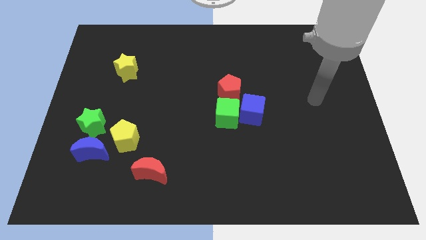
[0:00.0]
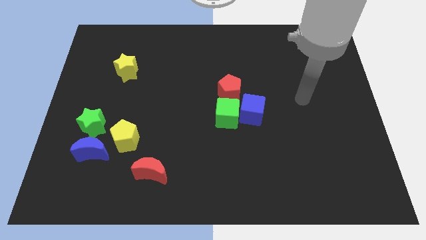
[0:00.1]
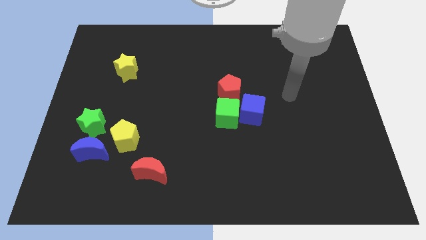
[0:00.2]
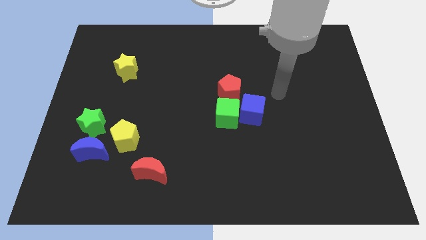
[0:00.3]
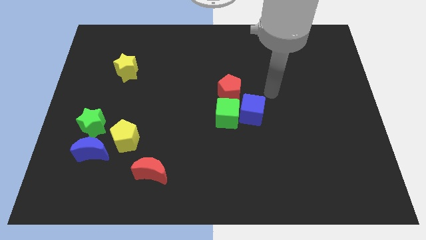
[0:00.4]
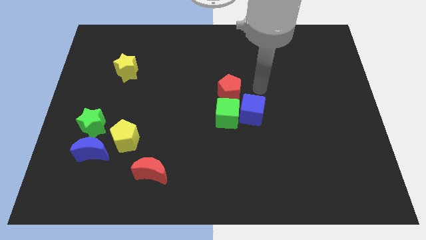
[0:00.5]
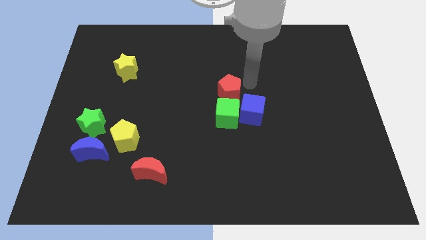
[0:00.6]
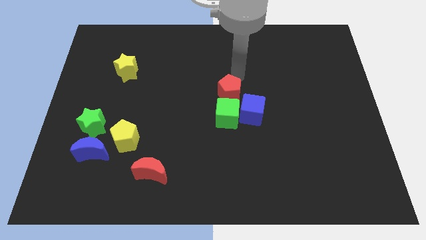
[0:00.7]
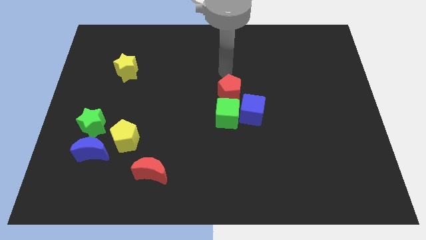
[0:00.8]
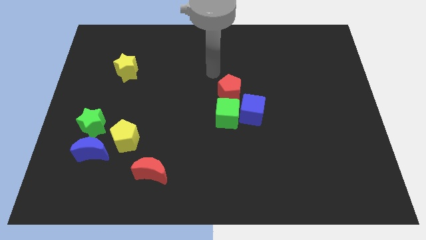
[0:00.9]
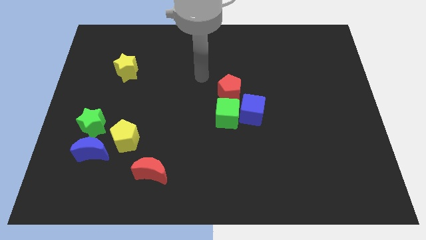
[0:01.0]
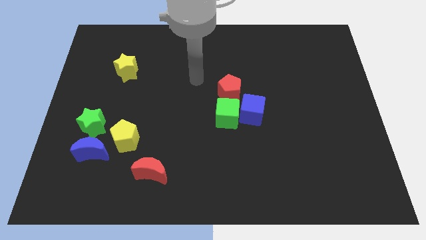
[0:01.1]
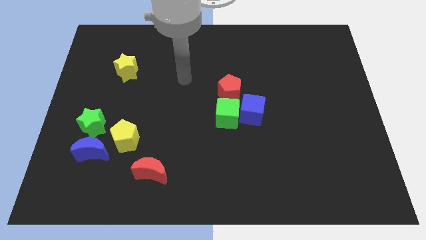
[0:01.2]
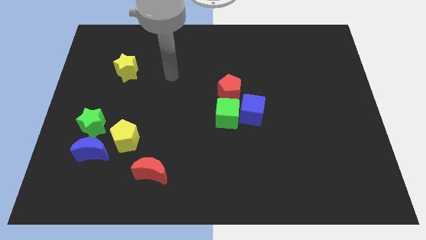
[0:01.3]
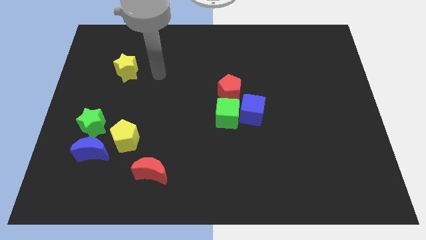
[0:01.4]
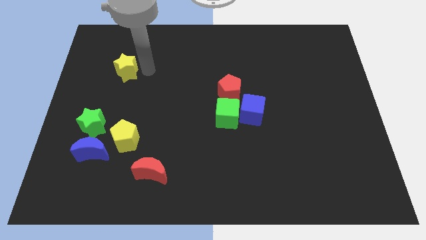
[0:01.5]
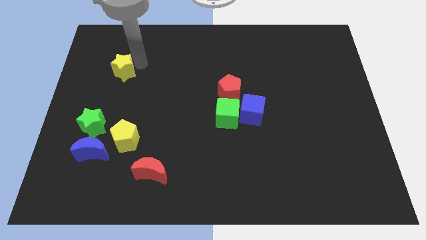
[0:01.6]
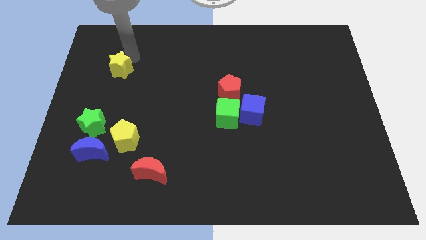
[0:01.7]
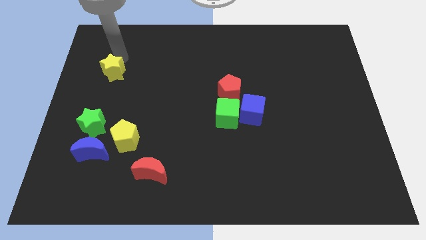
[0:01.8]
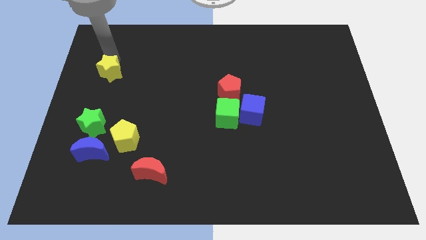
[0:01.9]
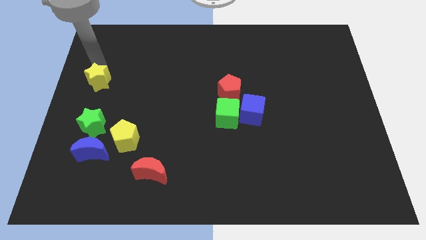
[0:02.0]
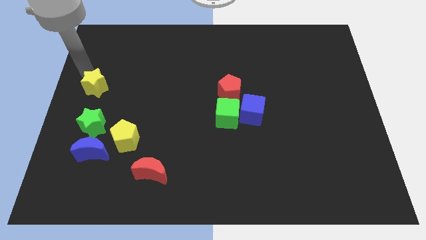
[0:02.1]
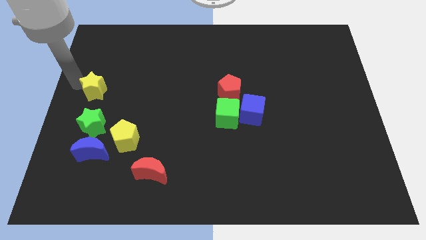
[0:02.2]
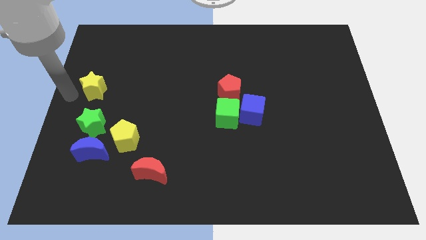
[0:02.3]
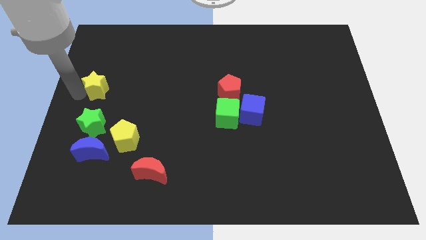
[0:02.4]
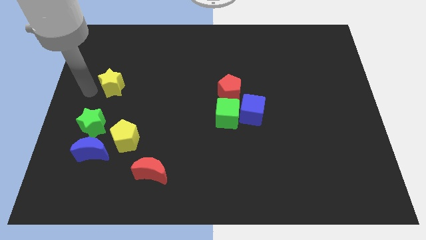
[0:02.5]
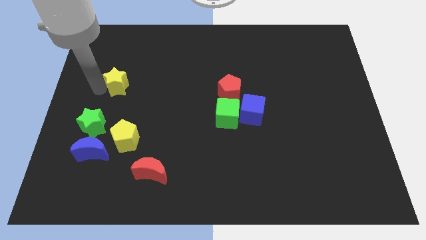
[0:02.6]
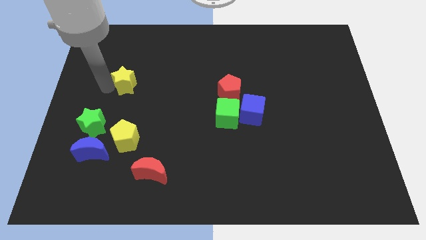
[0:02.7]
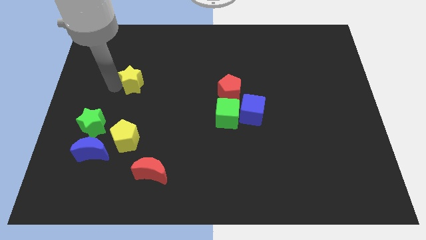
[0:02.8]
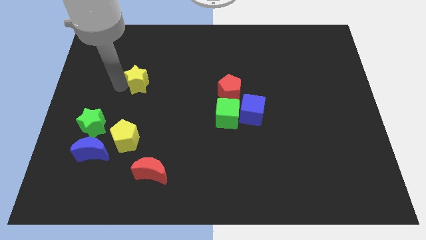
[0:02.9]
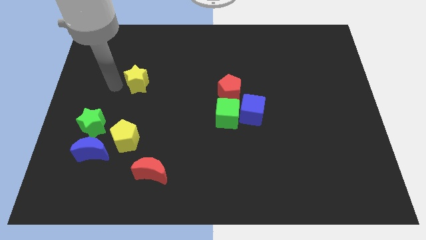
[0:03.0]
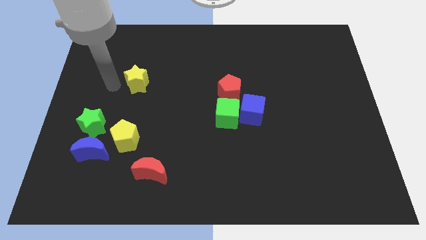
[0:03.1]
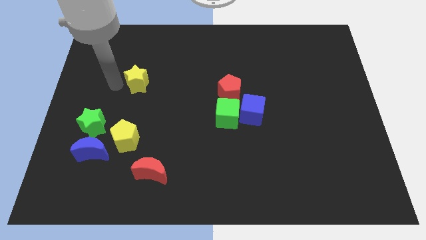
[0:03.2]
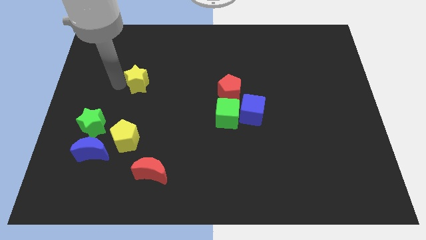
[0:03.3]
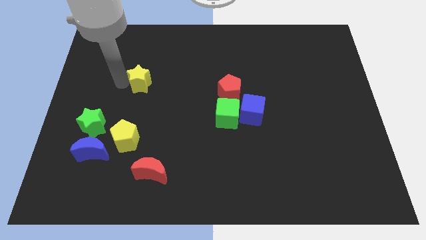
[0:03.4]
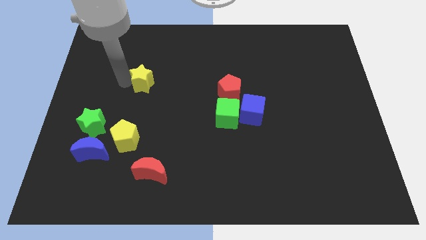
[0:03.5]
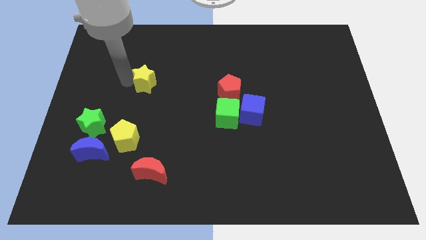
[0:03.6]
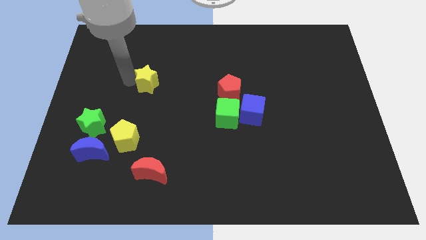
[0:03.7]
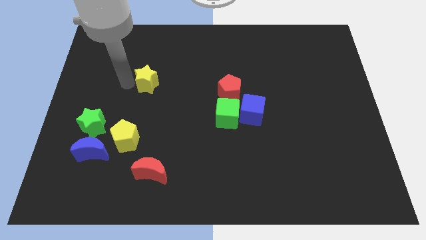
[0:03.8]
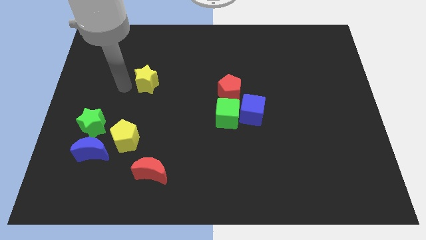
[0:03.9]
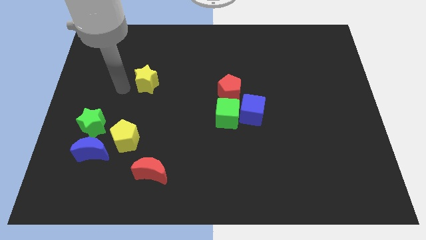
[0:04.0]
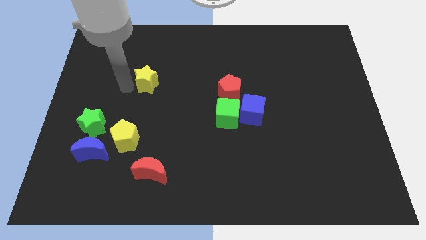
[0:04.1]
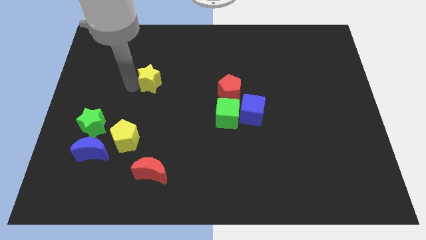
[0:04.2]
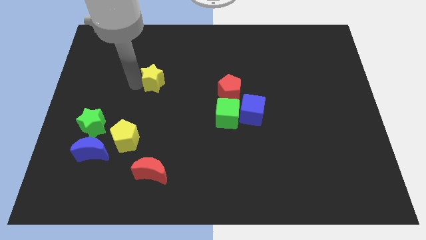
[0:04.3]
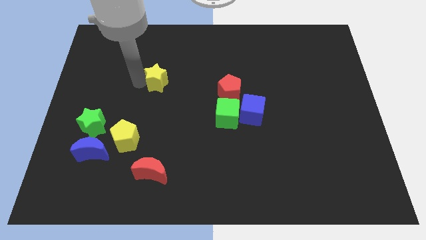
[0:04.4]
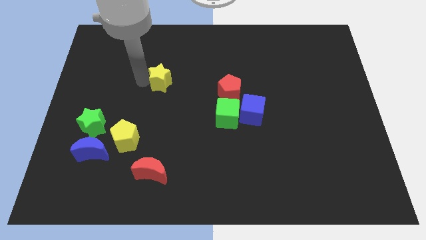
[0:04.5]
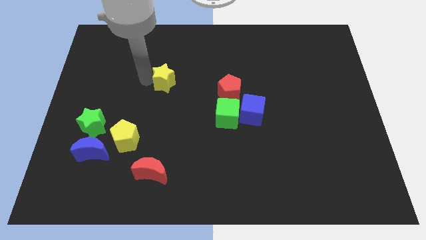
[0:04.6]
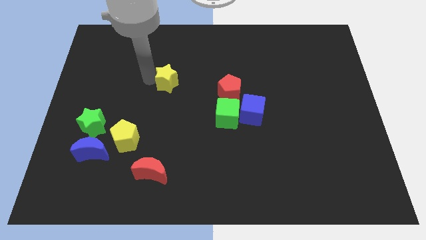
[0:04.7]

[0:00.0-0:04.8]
push the yellow star to the middle of the board

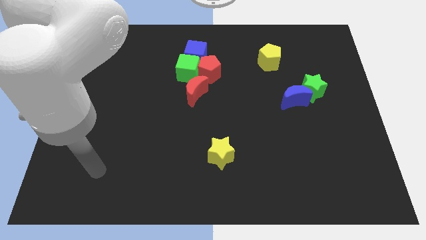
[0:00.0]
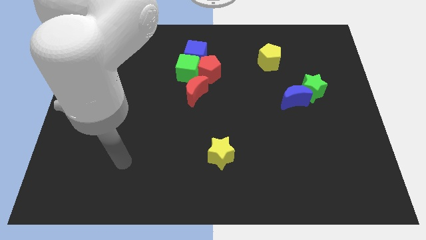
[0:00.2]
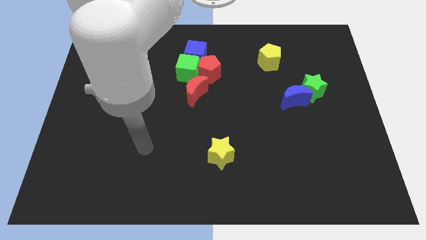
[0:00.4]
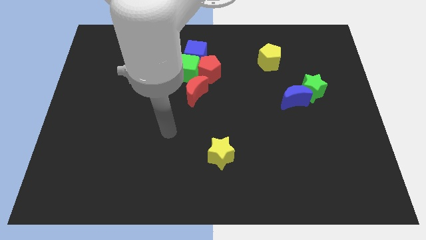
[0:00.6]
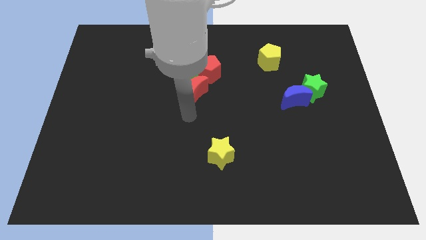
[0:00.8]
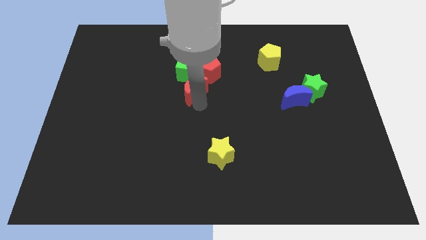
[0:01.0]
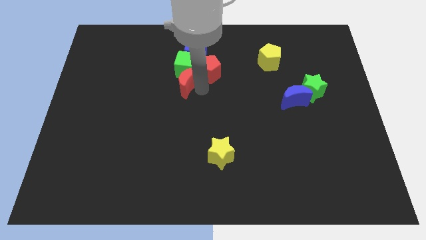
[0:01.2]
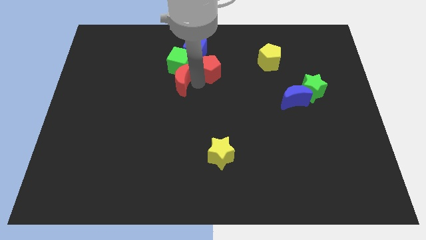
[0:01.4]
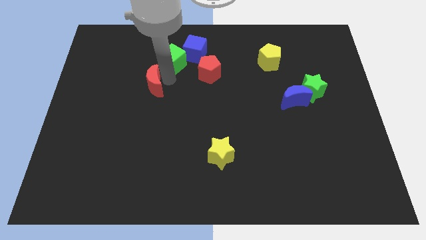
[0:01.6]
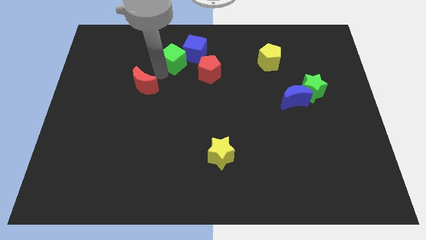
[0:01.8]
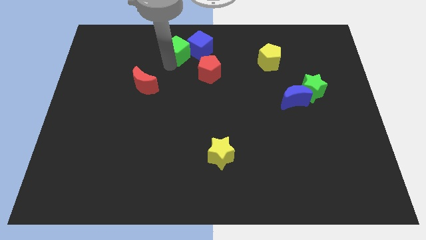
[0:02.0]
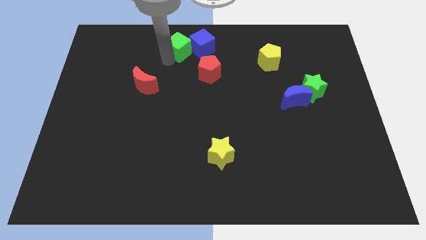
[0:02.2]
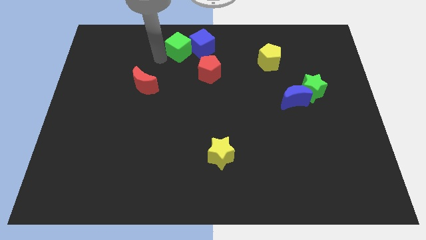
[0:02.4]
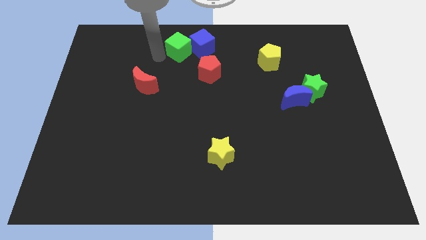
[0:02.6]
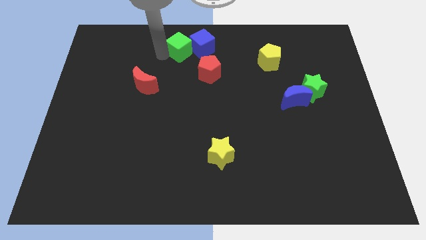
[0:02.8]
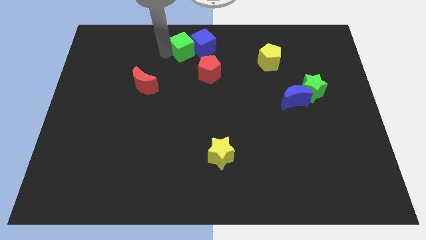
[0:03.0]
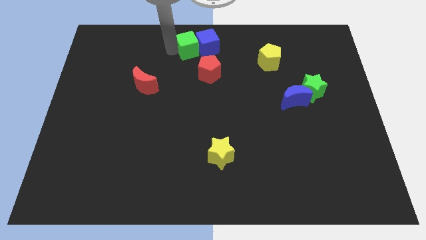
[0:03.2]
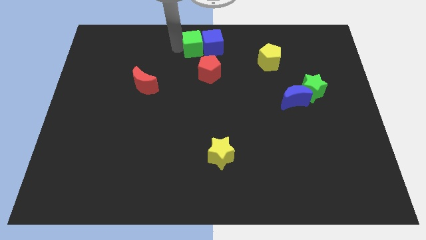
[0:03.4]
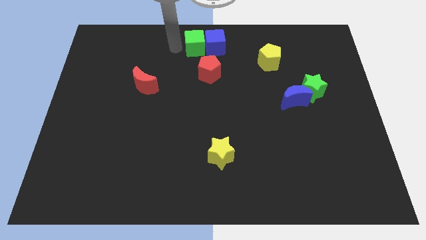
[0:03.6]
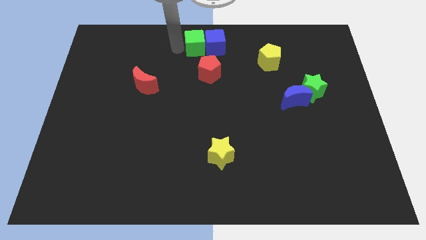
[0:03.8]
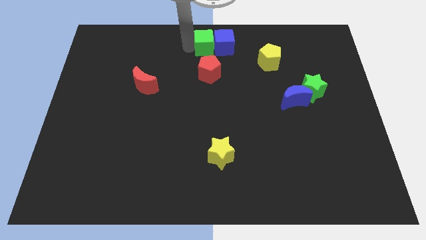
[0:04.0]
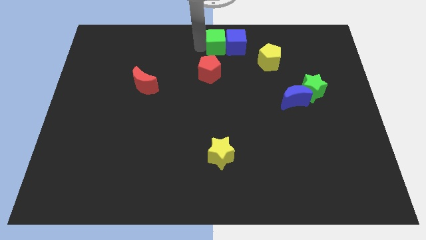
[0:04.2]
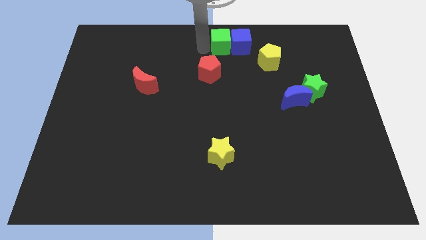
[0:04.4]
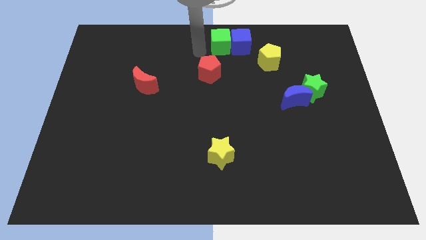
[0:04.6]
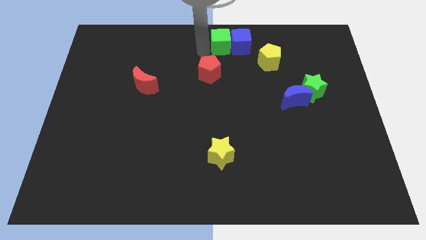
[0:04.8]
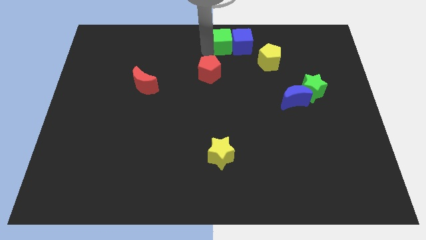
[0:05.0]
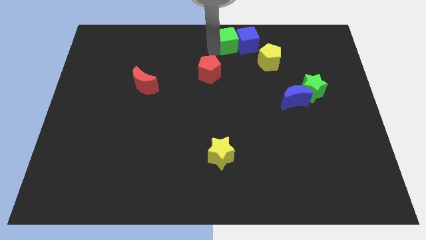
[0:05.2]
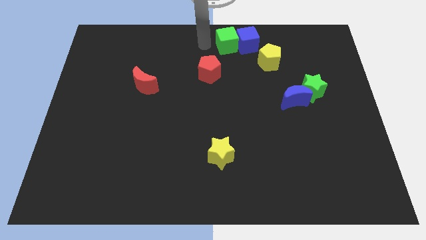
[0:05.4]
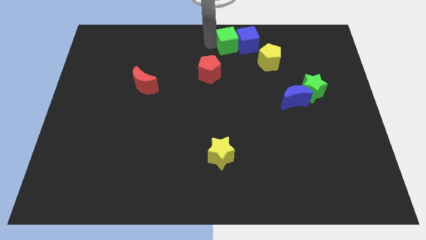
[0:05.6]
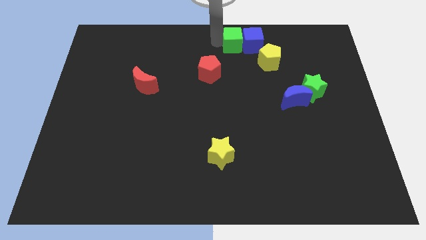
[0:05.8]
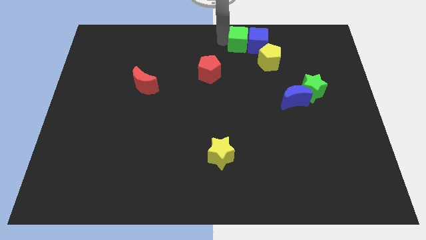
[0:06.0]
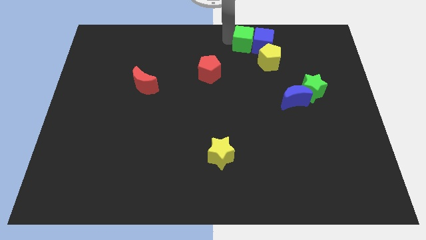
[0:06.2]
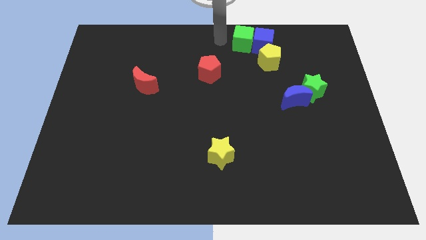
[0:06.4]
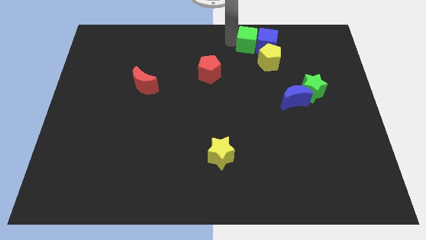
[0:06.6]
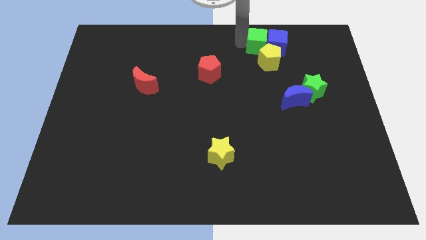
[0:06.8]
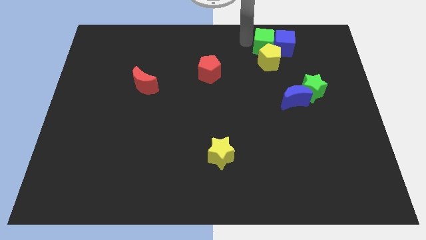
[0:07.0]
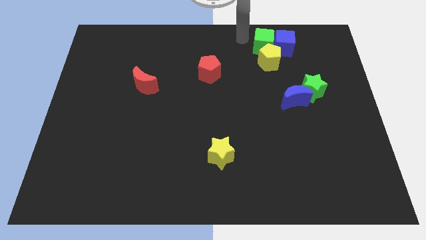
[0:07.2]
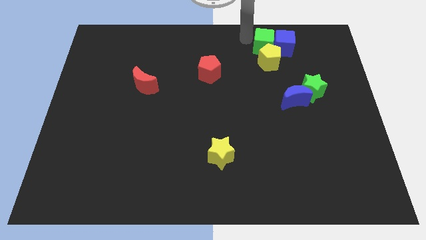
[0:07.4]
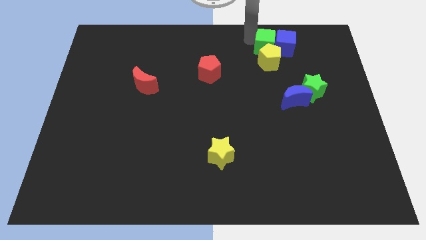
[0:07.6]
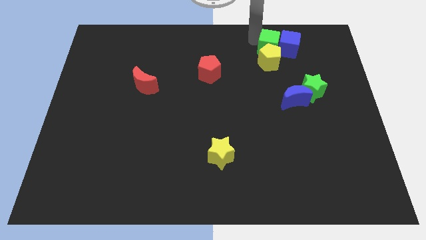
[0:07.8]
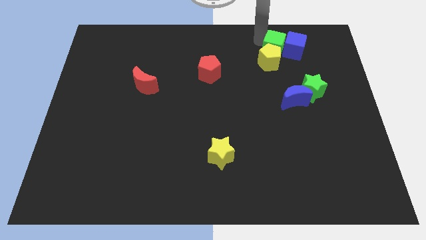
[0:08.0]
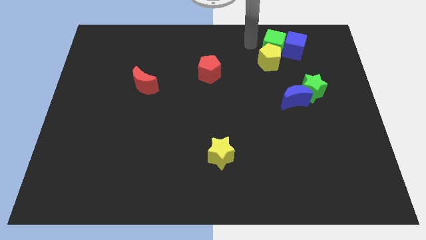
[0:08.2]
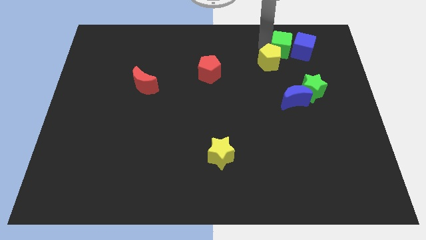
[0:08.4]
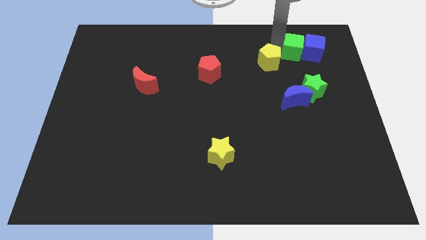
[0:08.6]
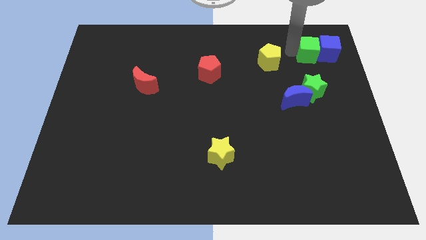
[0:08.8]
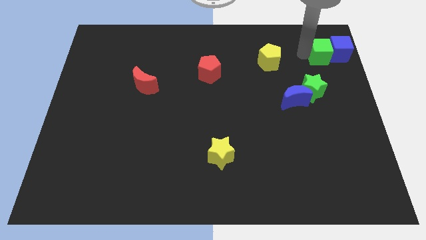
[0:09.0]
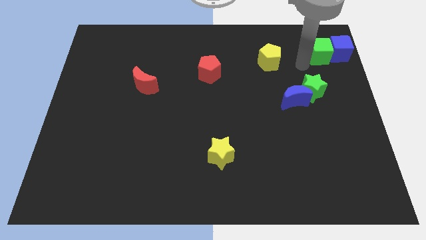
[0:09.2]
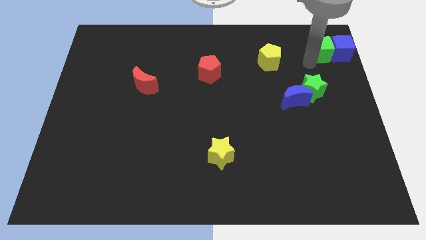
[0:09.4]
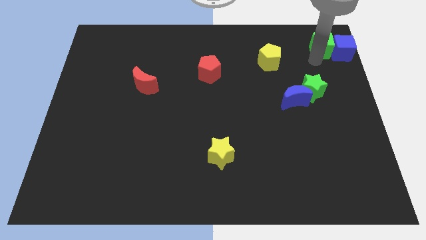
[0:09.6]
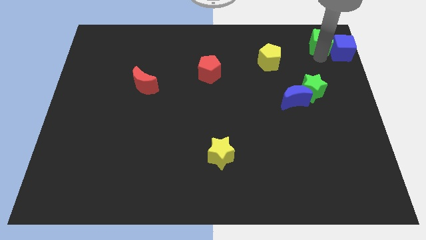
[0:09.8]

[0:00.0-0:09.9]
push the green cube to the upper right corner
